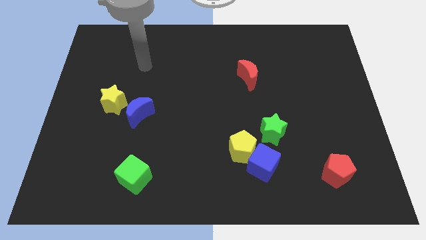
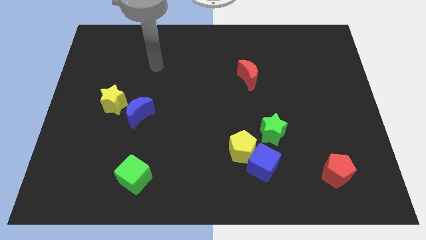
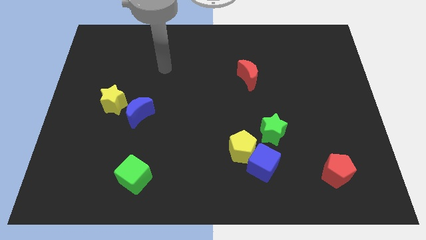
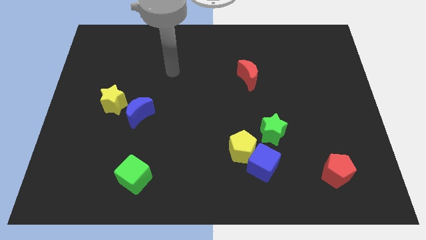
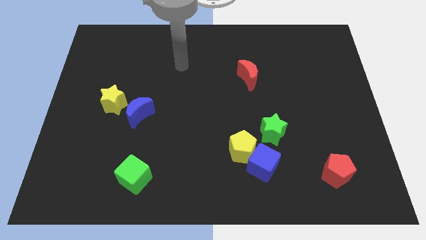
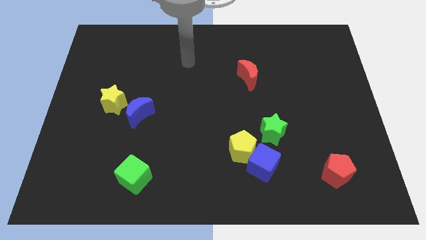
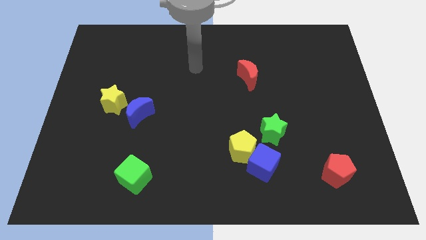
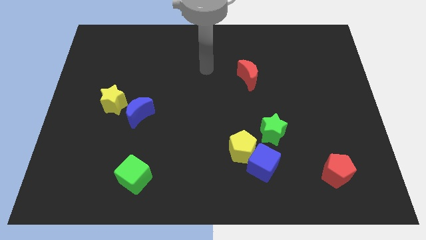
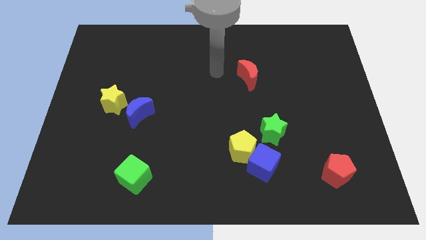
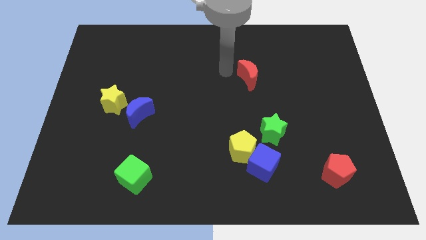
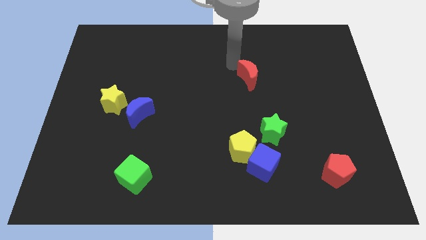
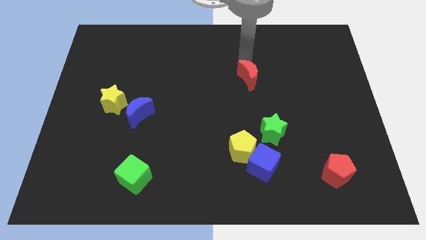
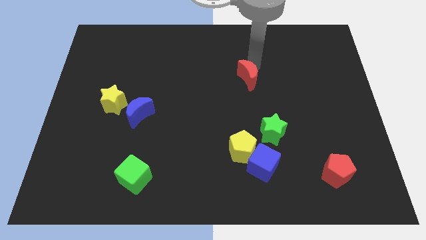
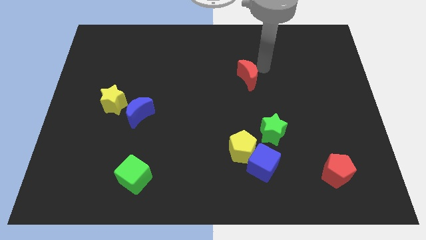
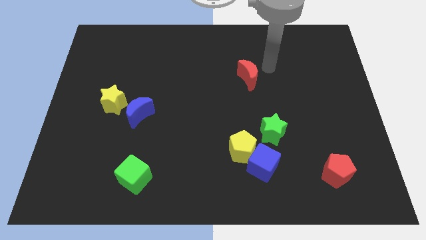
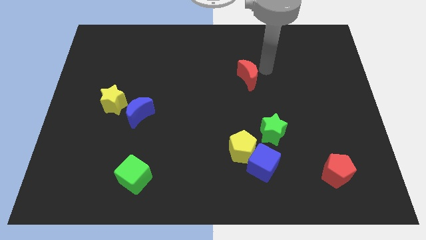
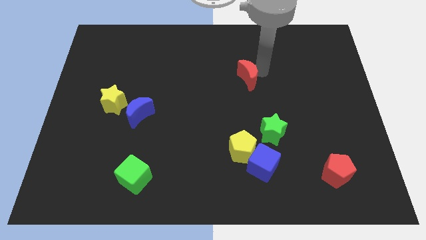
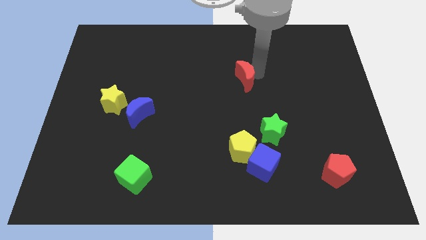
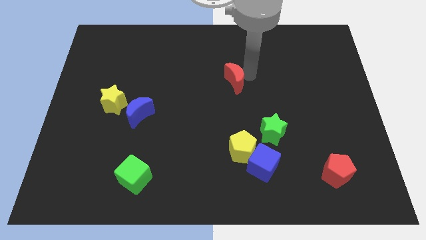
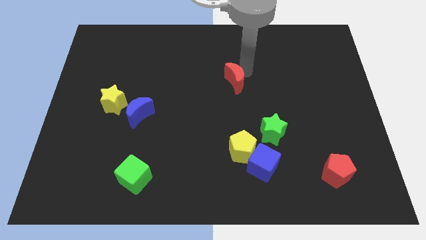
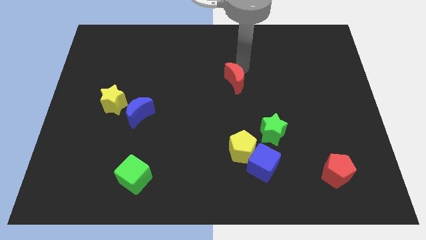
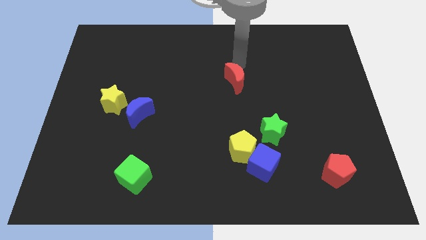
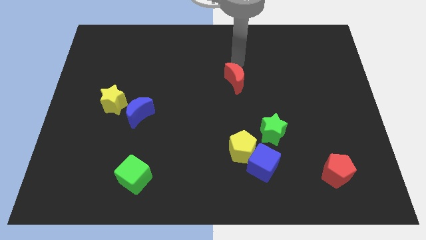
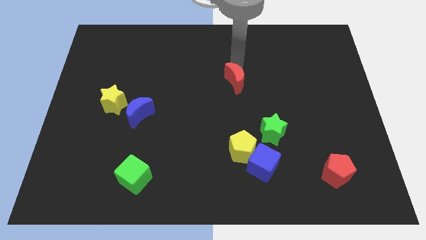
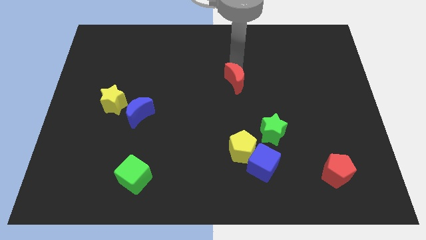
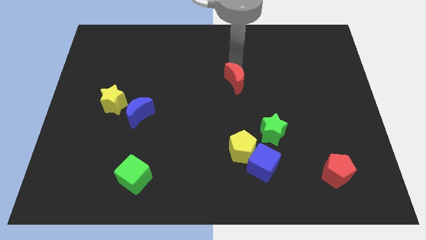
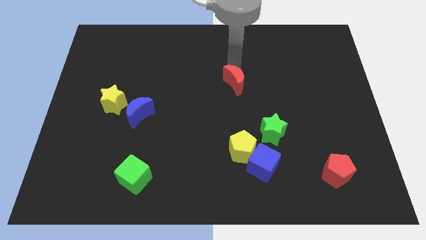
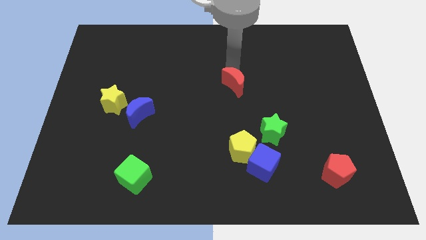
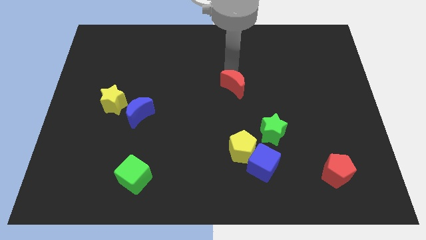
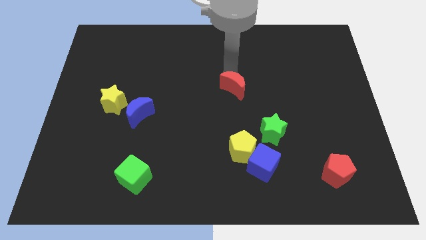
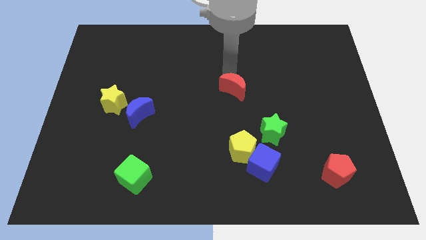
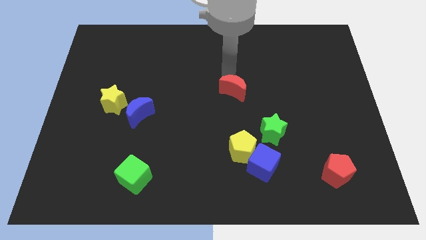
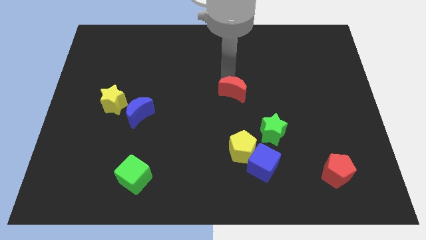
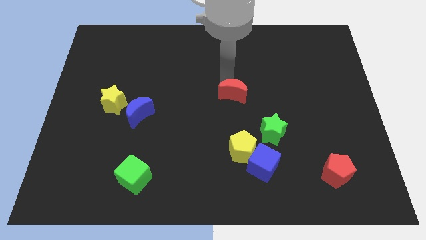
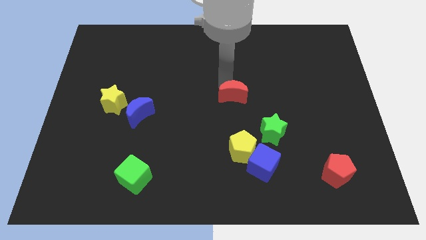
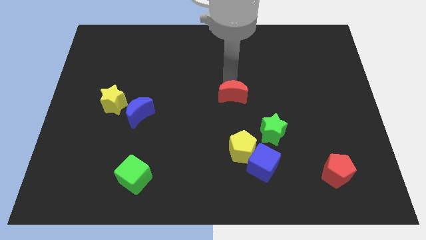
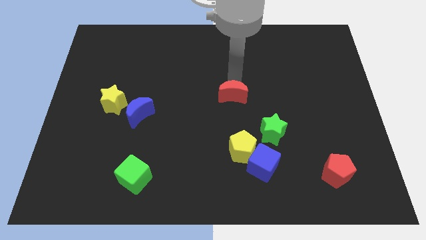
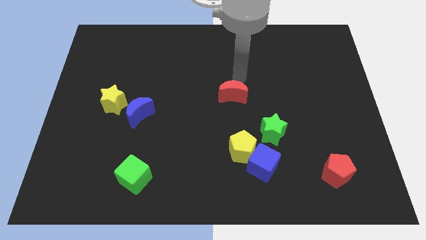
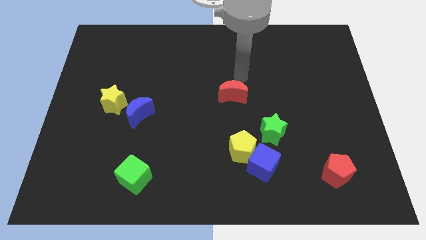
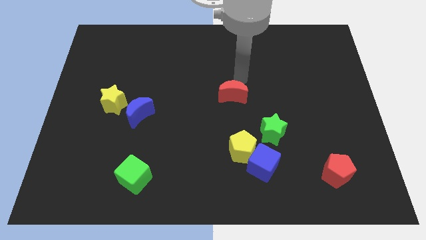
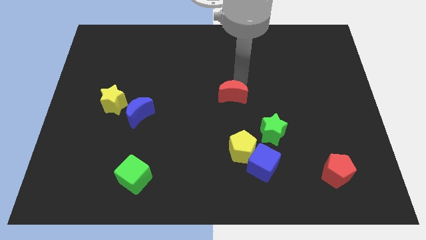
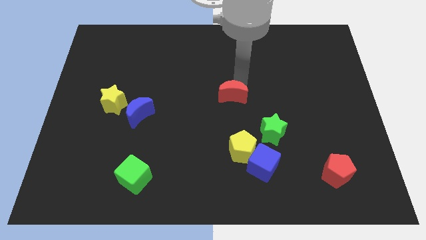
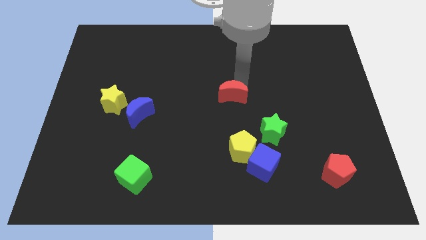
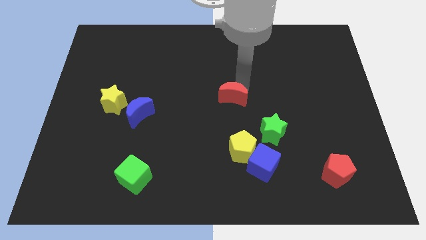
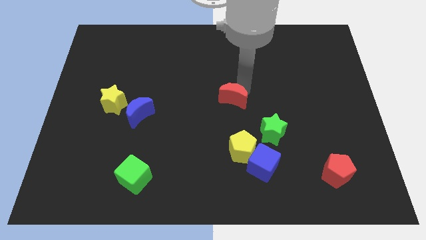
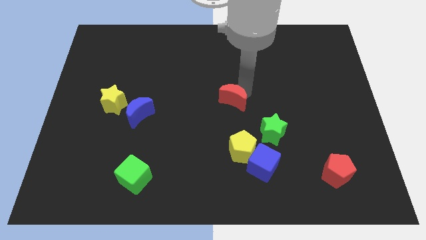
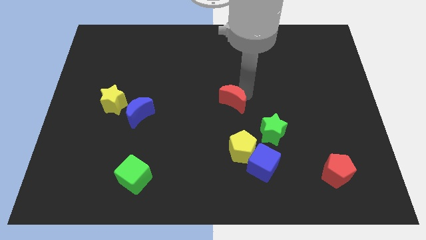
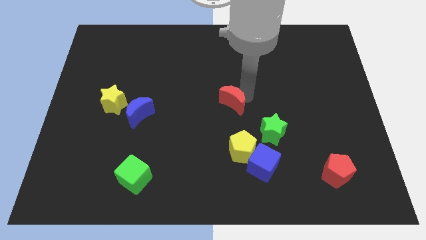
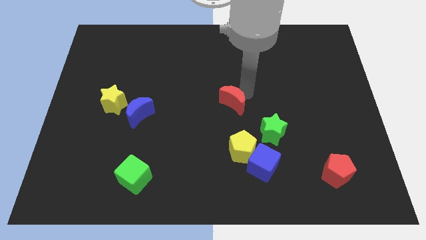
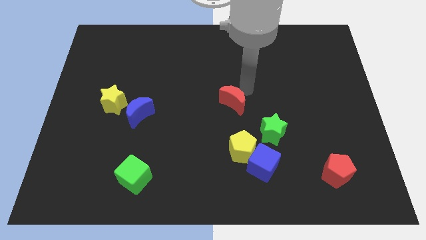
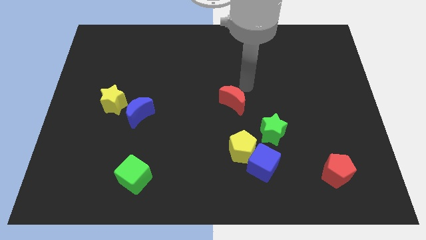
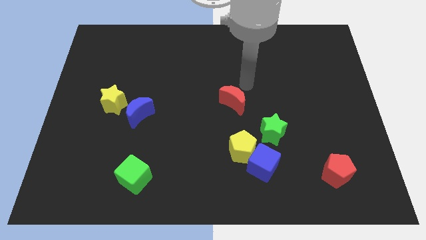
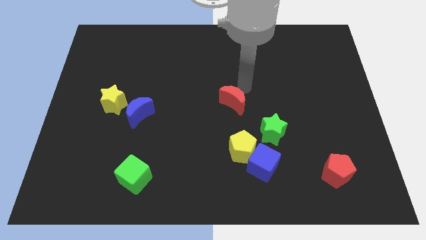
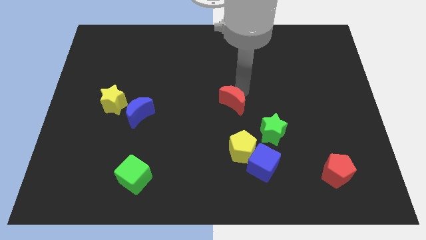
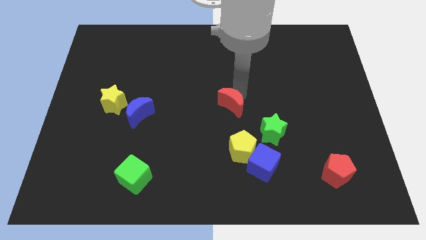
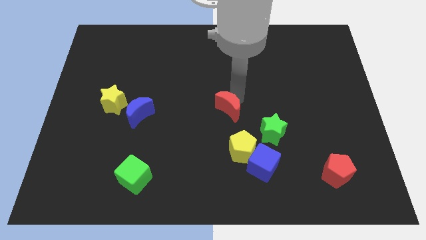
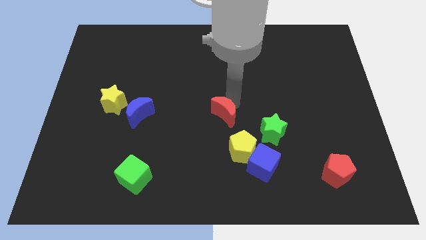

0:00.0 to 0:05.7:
put the red moon diagonally up and to the left of the yellow pentagon

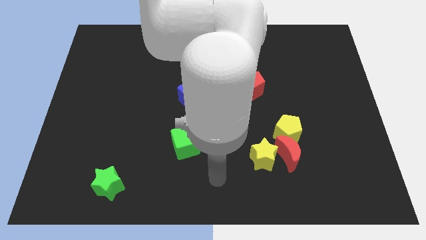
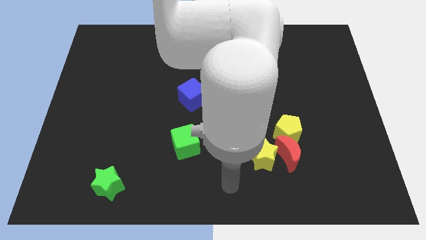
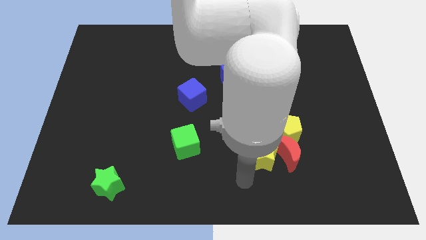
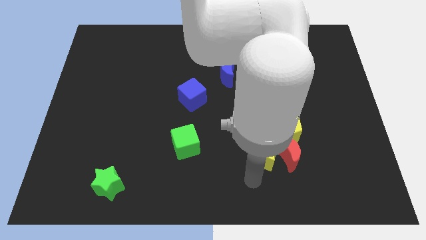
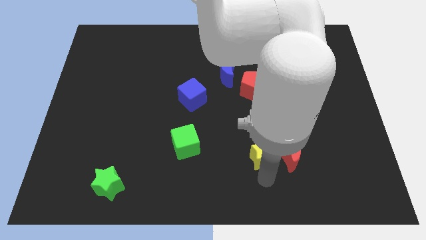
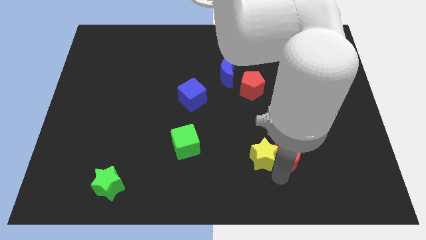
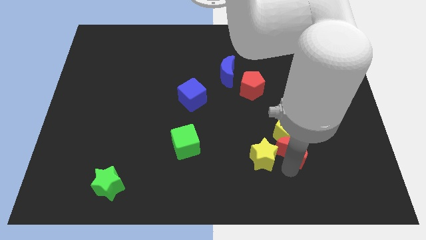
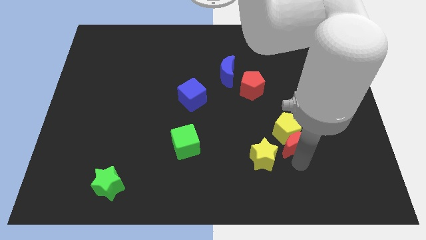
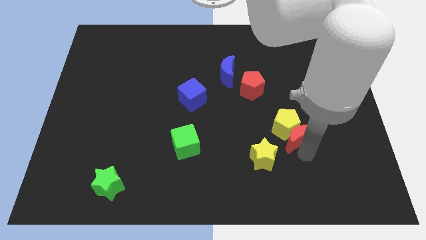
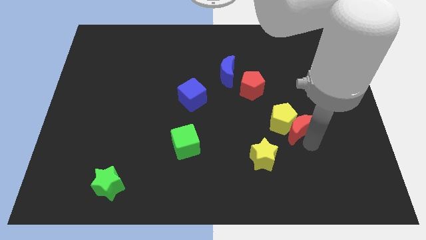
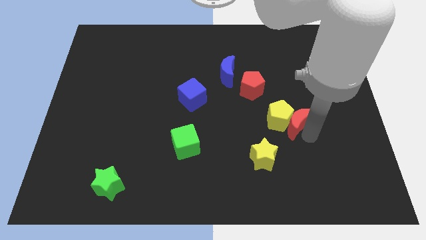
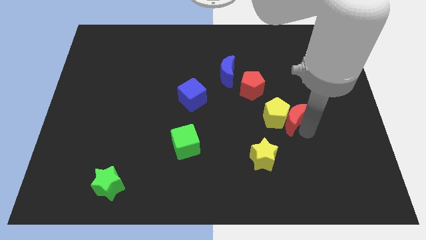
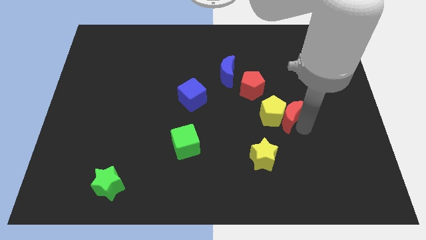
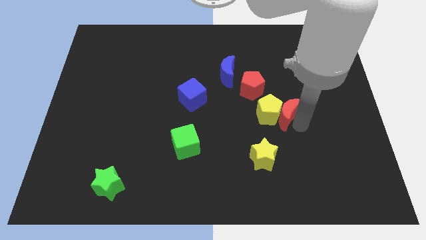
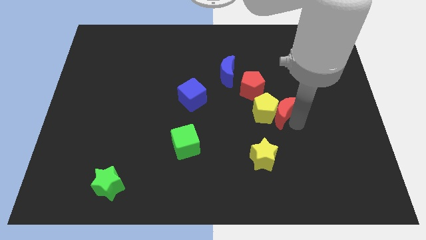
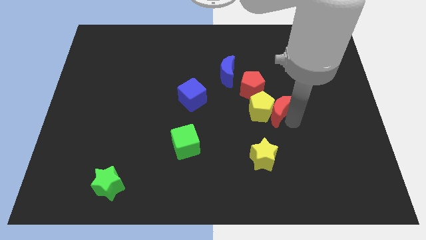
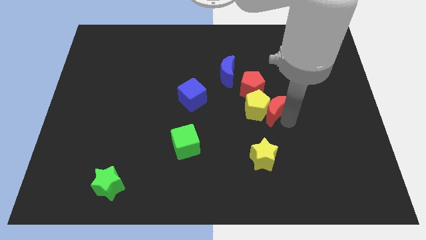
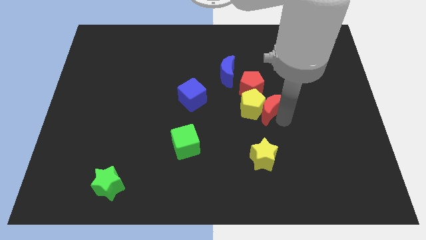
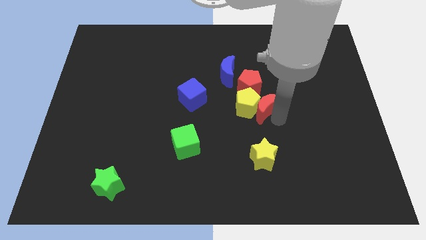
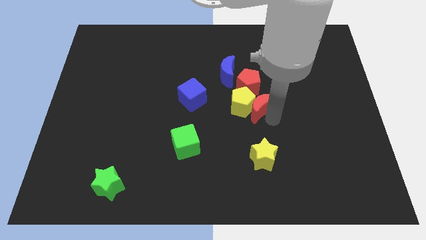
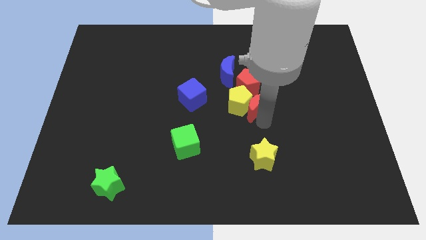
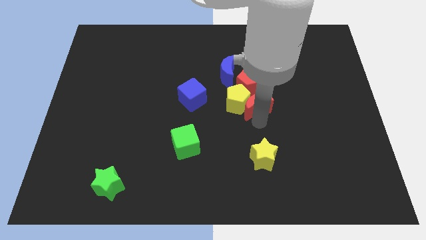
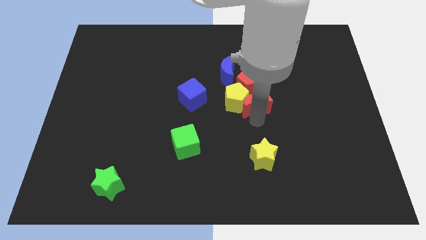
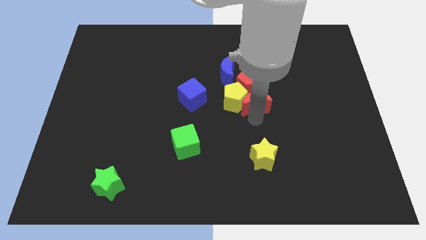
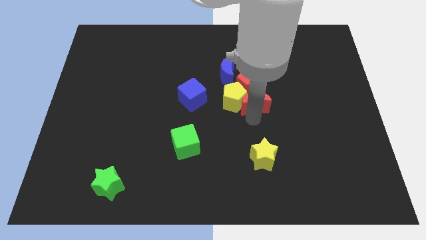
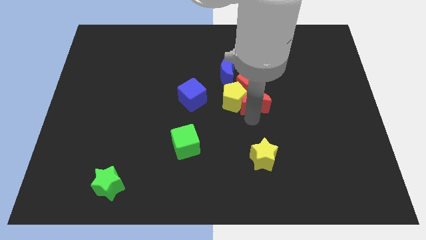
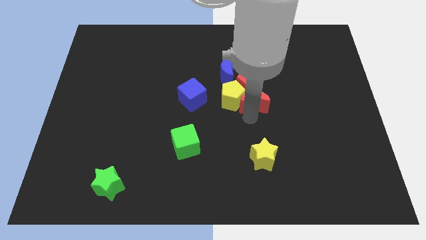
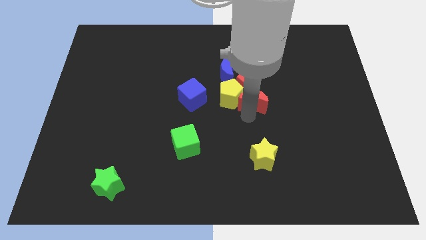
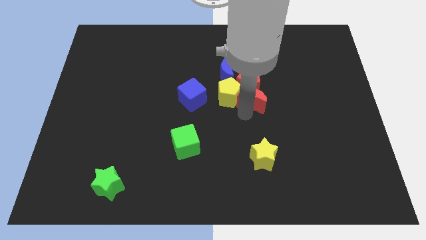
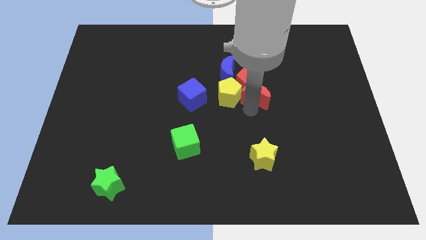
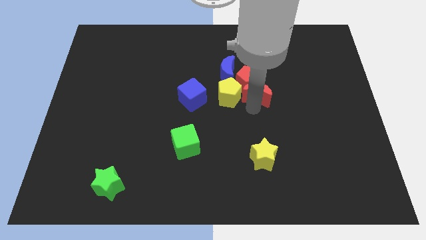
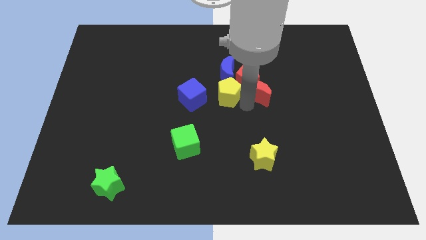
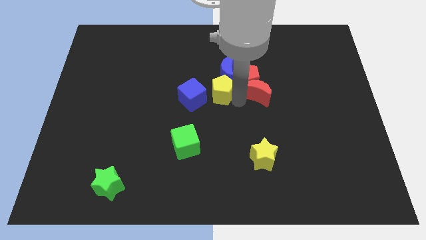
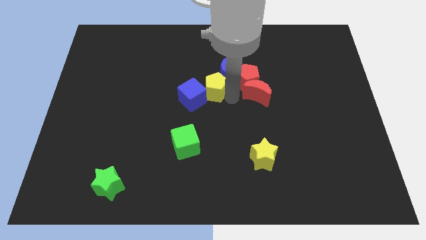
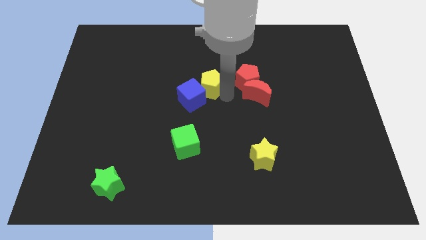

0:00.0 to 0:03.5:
push the yellow pentagon just left of the blue moon
